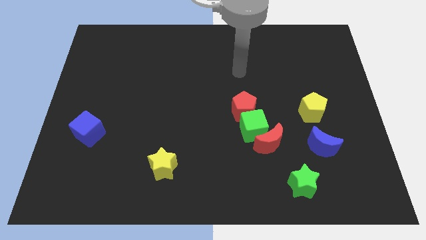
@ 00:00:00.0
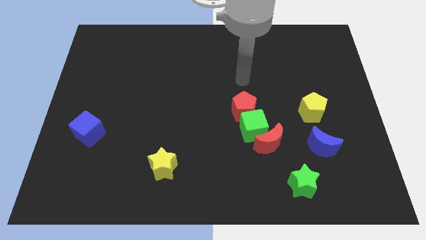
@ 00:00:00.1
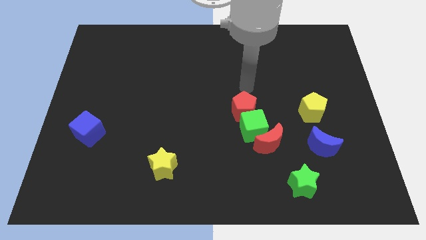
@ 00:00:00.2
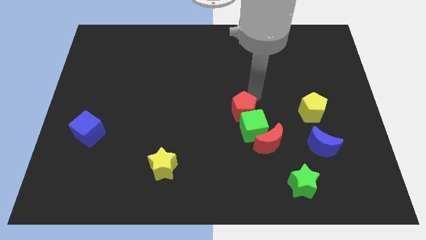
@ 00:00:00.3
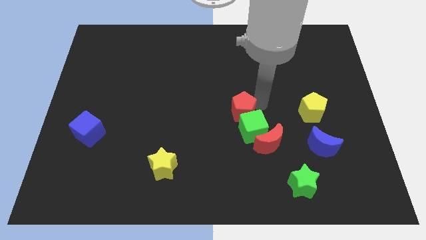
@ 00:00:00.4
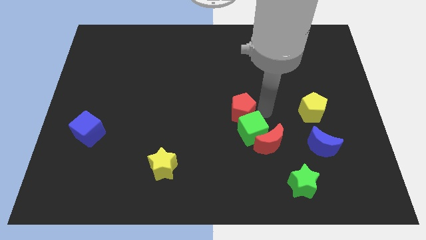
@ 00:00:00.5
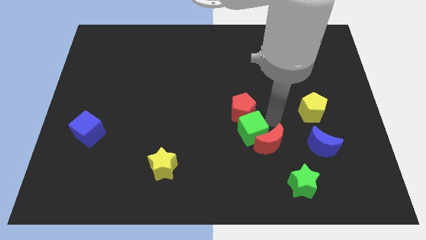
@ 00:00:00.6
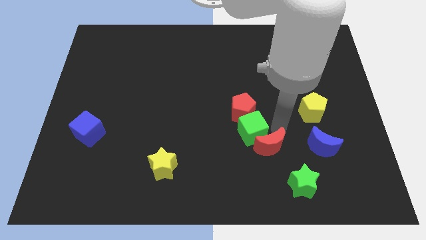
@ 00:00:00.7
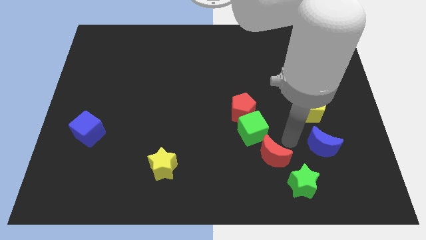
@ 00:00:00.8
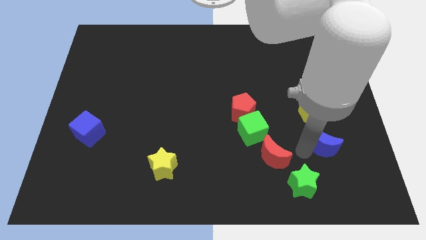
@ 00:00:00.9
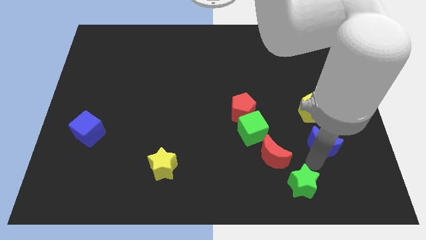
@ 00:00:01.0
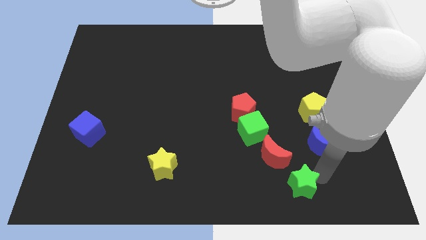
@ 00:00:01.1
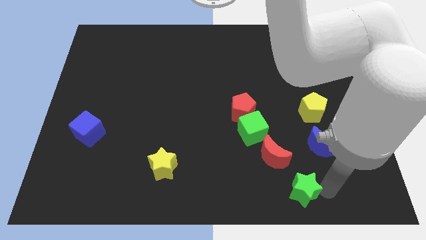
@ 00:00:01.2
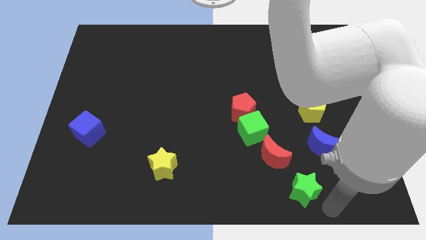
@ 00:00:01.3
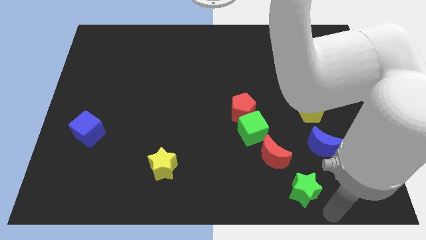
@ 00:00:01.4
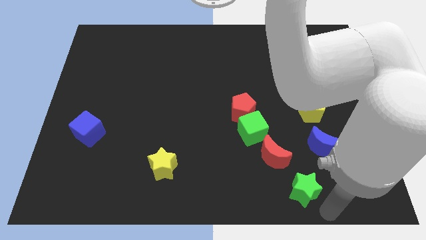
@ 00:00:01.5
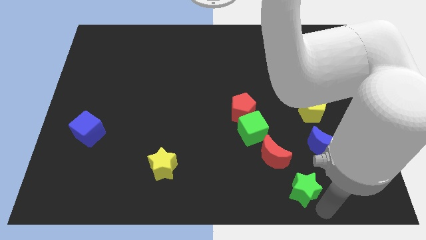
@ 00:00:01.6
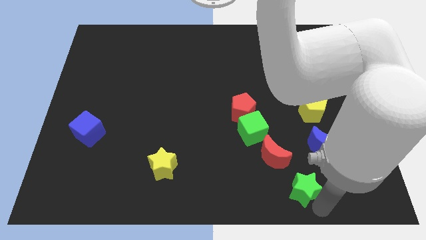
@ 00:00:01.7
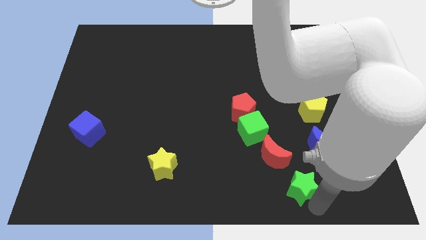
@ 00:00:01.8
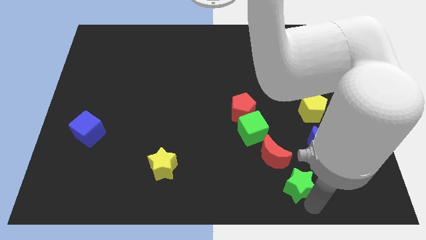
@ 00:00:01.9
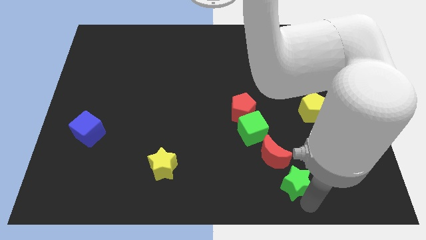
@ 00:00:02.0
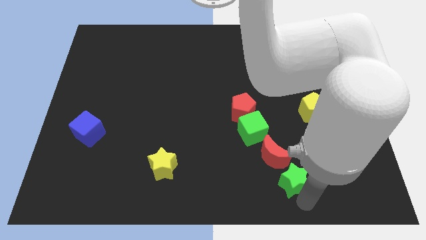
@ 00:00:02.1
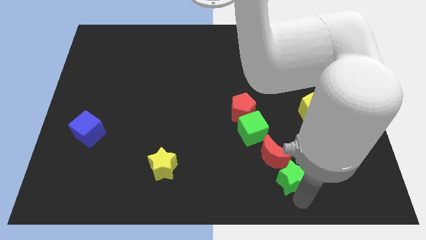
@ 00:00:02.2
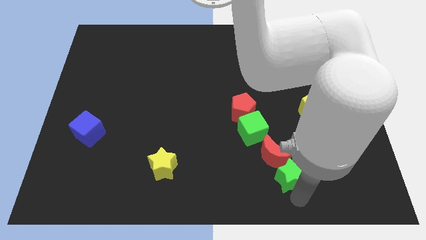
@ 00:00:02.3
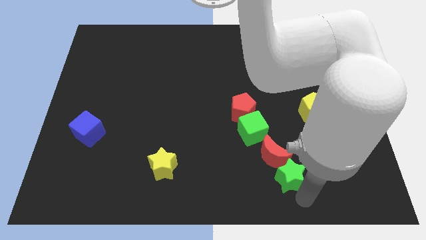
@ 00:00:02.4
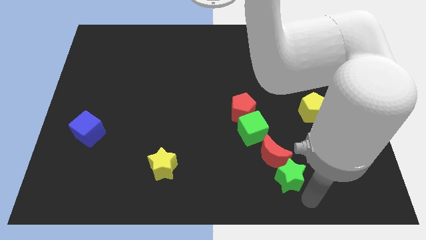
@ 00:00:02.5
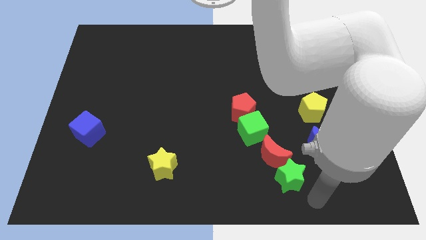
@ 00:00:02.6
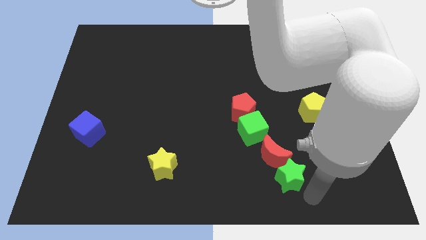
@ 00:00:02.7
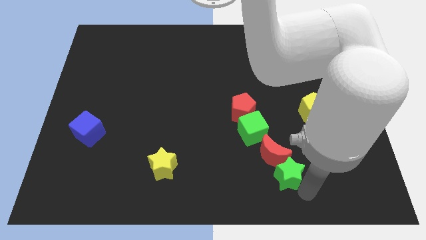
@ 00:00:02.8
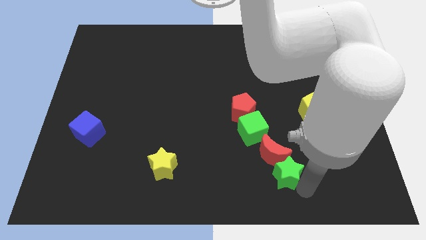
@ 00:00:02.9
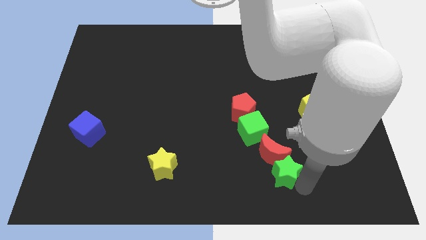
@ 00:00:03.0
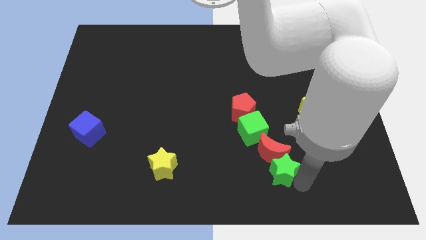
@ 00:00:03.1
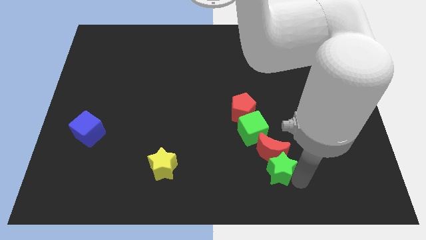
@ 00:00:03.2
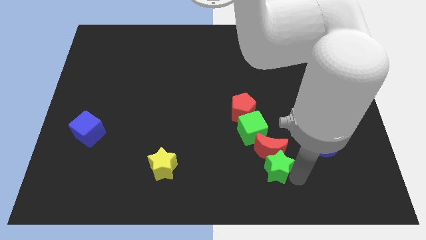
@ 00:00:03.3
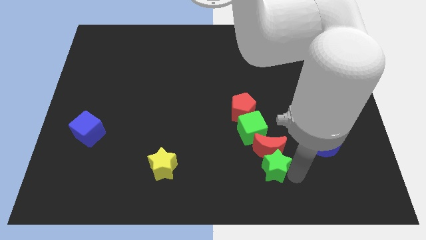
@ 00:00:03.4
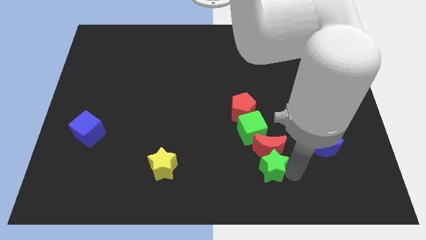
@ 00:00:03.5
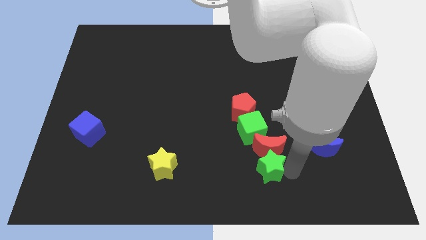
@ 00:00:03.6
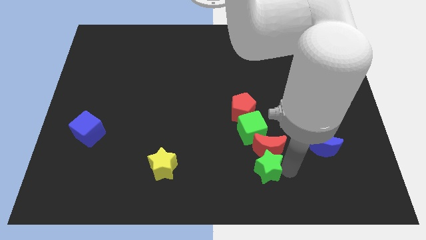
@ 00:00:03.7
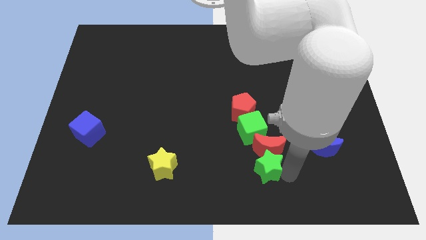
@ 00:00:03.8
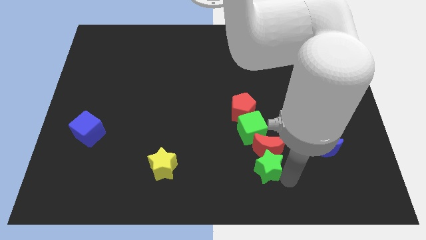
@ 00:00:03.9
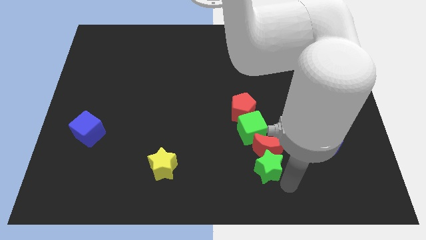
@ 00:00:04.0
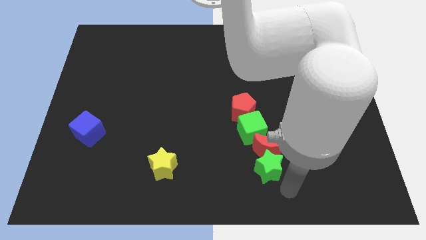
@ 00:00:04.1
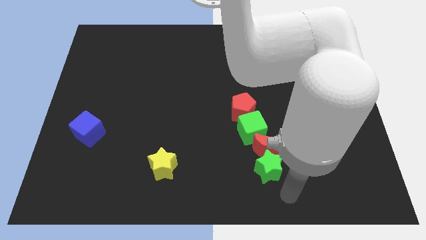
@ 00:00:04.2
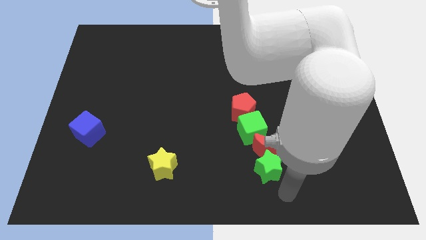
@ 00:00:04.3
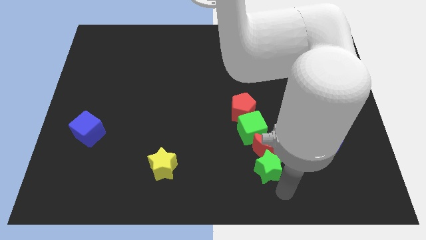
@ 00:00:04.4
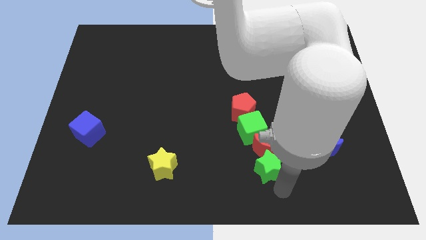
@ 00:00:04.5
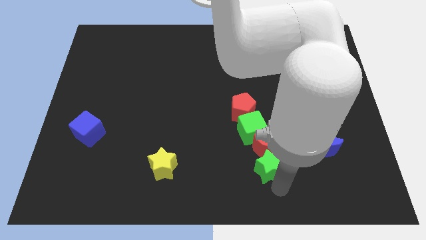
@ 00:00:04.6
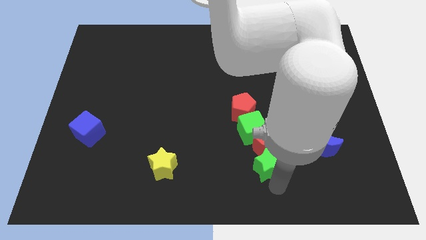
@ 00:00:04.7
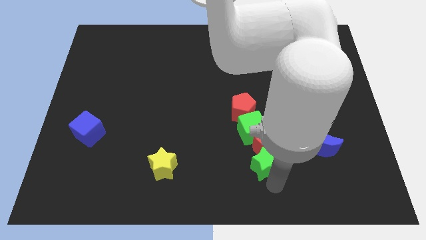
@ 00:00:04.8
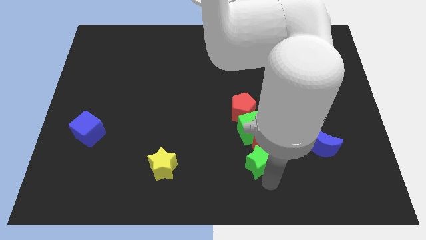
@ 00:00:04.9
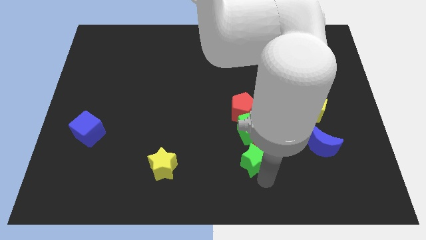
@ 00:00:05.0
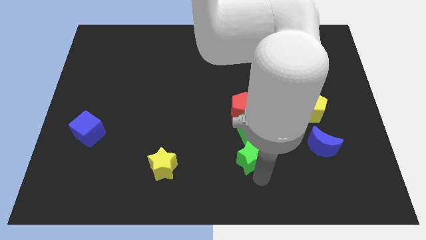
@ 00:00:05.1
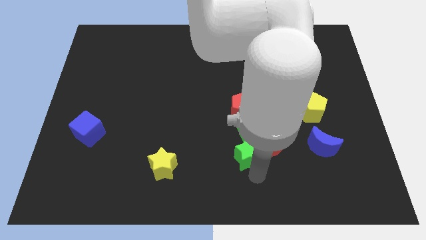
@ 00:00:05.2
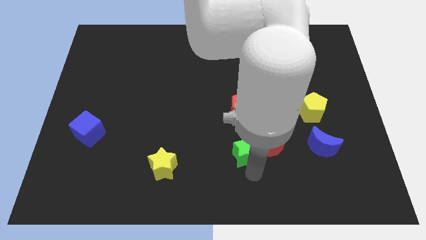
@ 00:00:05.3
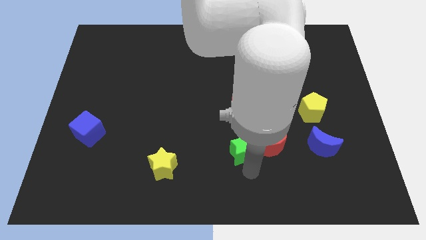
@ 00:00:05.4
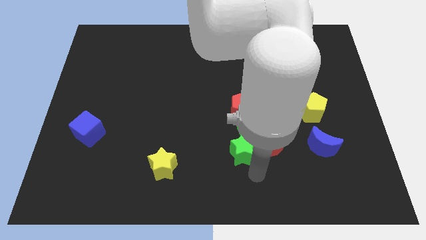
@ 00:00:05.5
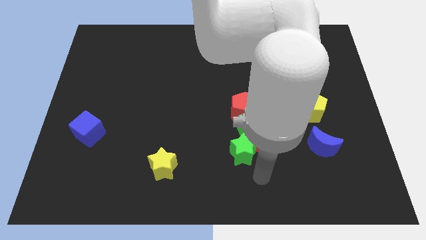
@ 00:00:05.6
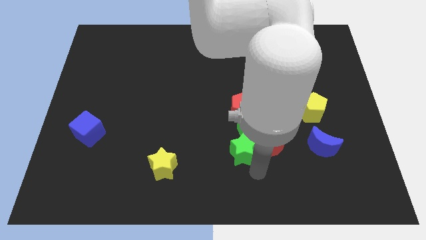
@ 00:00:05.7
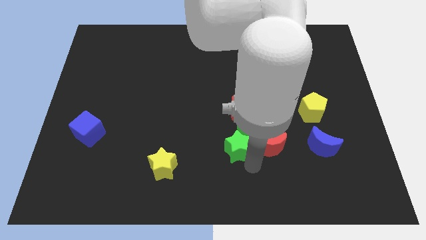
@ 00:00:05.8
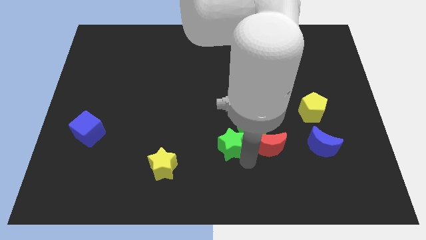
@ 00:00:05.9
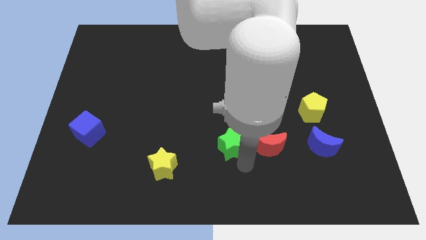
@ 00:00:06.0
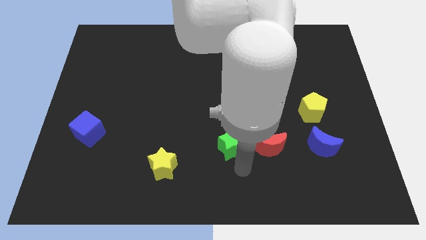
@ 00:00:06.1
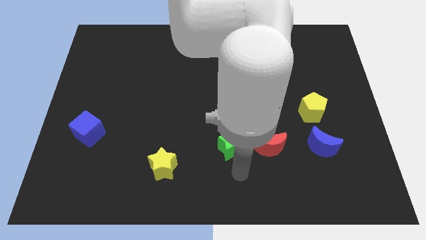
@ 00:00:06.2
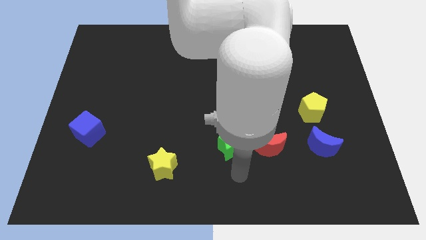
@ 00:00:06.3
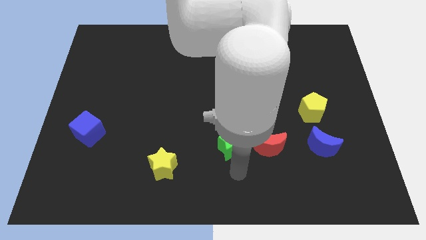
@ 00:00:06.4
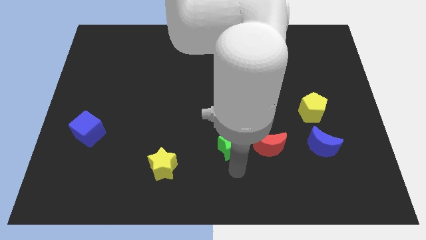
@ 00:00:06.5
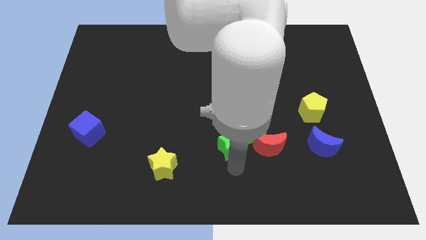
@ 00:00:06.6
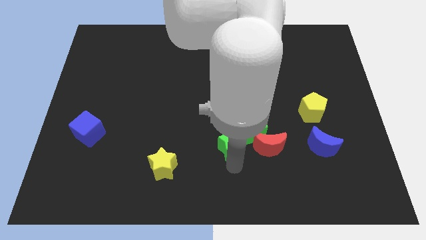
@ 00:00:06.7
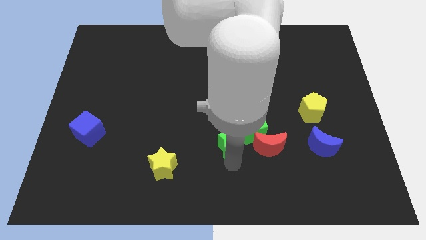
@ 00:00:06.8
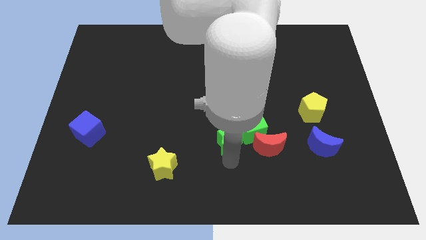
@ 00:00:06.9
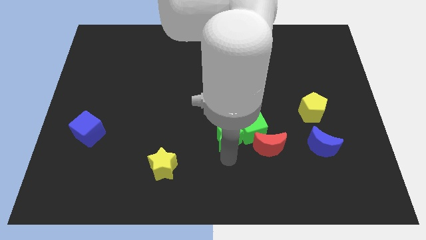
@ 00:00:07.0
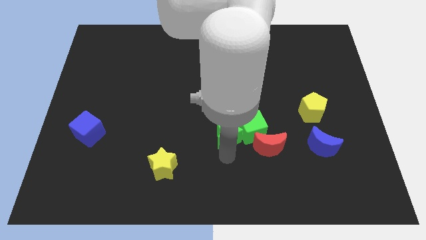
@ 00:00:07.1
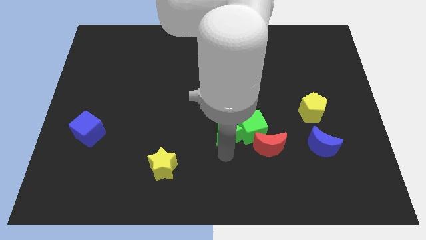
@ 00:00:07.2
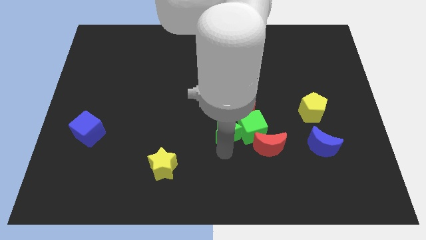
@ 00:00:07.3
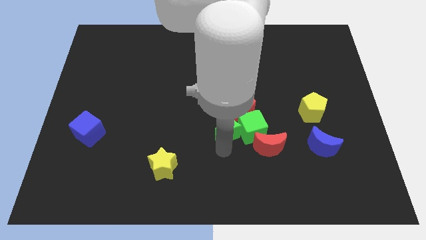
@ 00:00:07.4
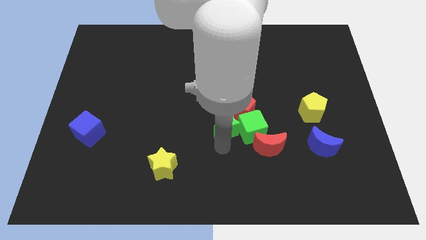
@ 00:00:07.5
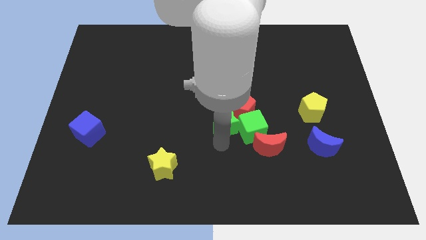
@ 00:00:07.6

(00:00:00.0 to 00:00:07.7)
put the green star next to the red pentagon
